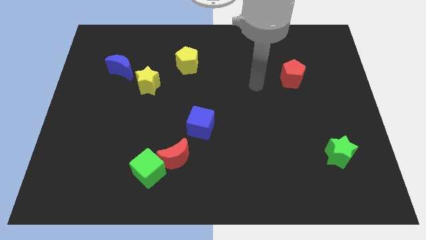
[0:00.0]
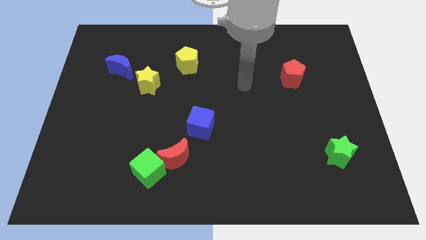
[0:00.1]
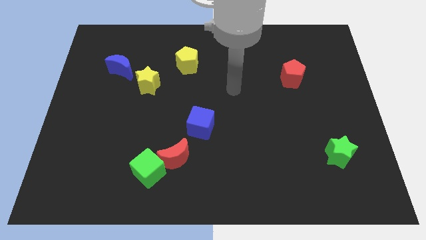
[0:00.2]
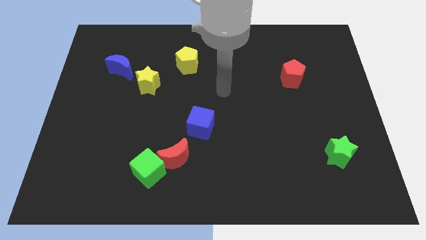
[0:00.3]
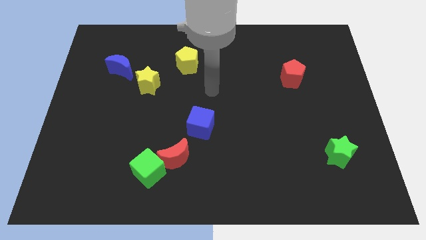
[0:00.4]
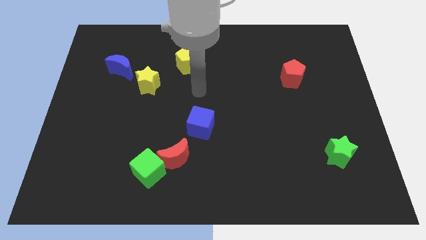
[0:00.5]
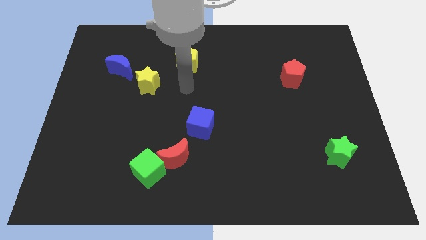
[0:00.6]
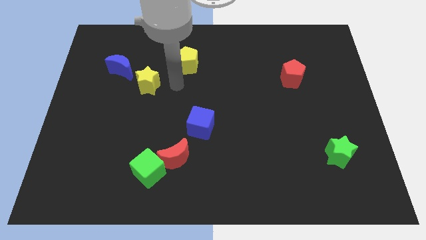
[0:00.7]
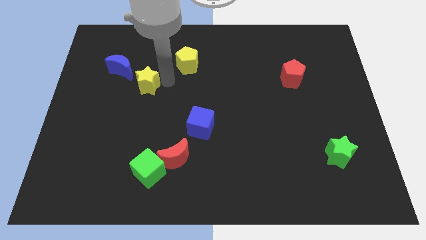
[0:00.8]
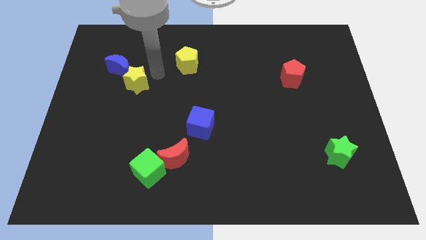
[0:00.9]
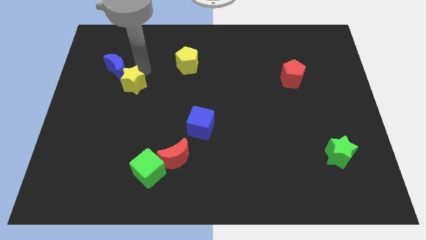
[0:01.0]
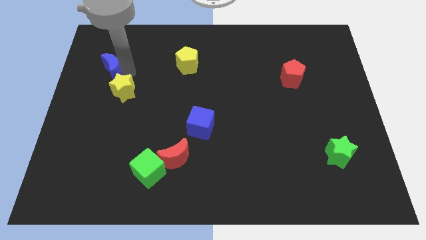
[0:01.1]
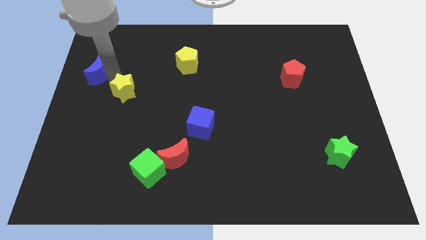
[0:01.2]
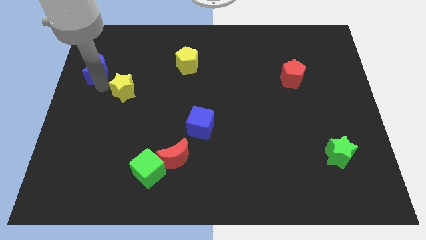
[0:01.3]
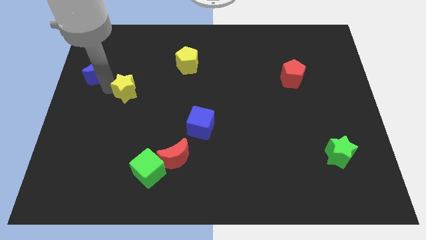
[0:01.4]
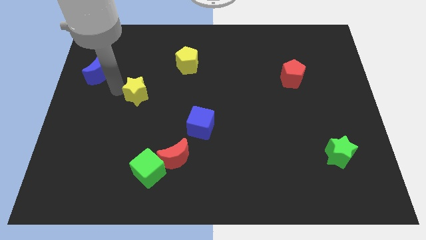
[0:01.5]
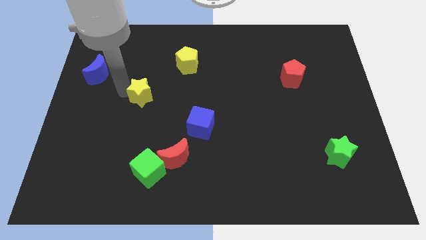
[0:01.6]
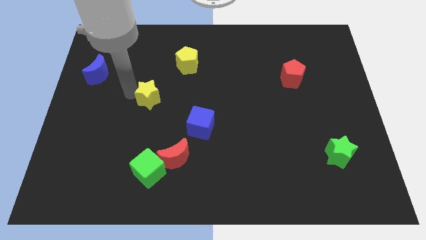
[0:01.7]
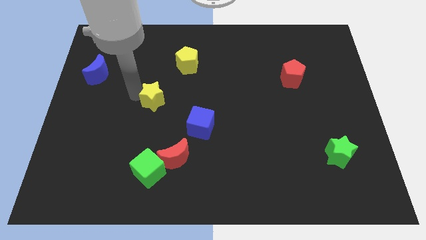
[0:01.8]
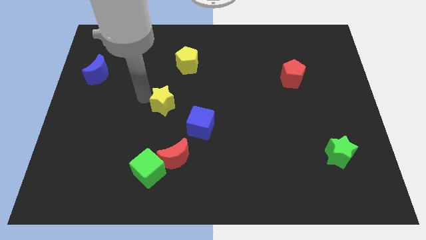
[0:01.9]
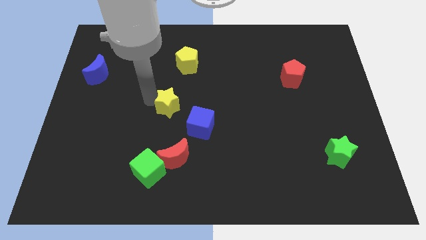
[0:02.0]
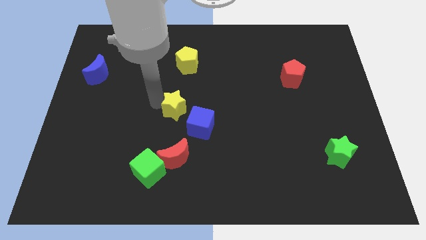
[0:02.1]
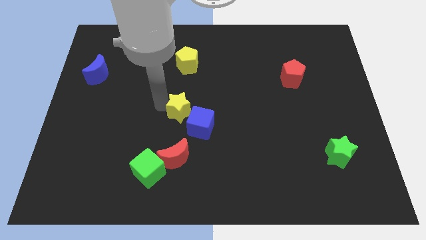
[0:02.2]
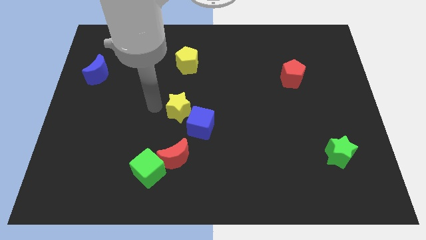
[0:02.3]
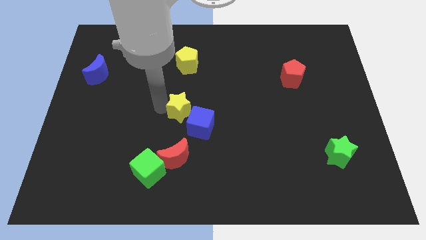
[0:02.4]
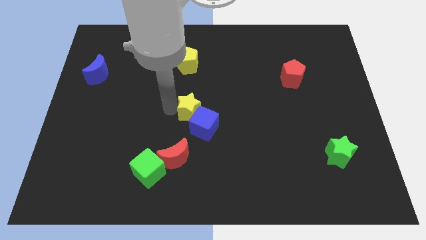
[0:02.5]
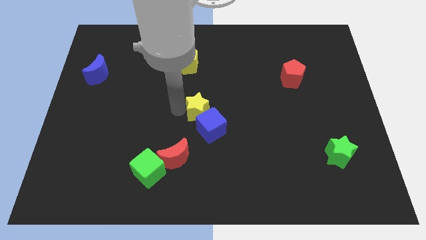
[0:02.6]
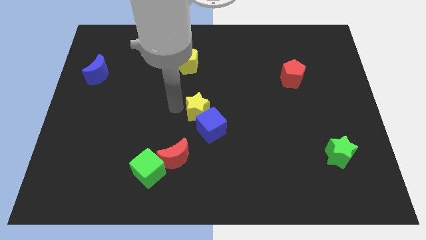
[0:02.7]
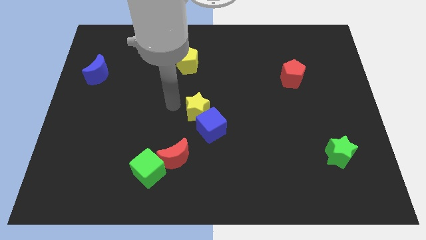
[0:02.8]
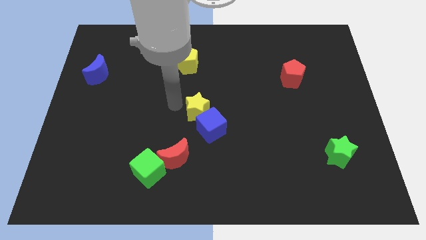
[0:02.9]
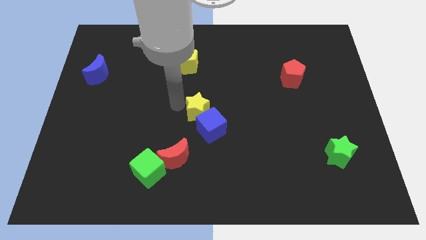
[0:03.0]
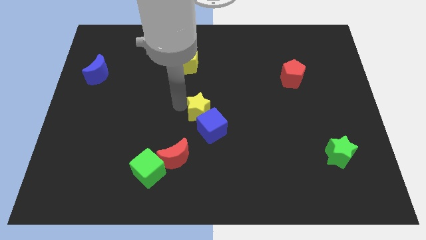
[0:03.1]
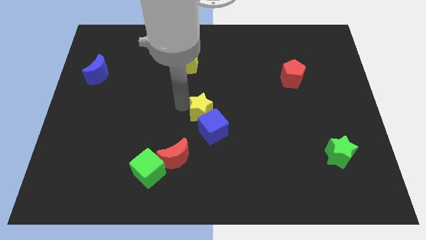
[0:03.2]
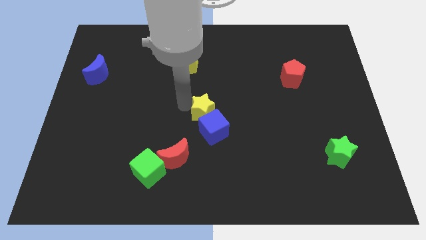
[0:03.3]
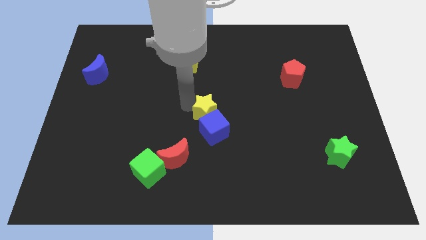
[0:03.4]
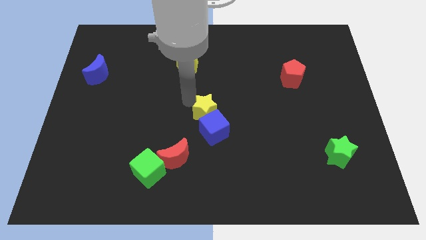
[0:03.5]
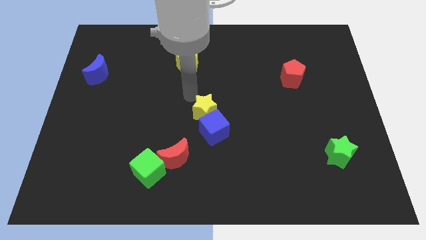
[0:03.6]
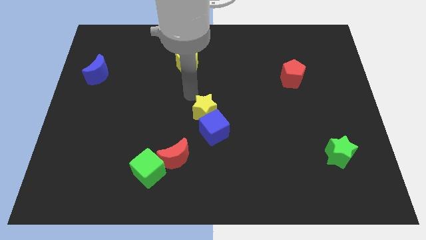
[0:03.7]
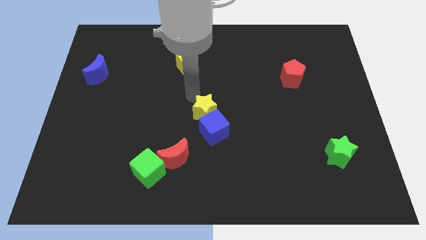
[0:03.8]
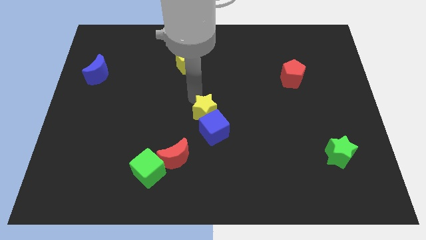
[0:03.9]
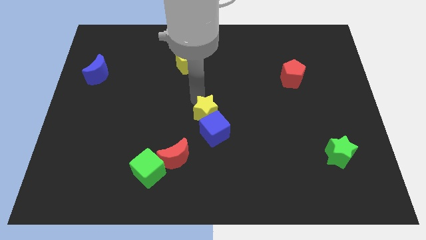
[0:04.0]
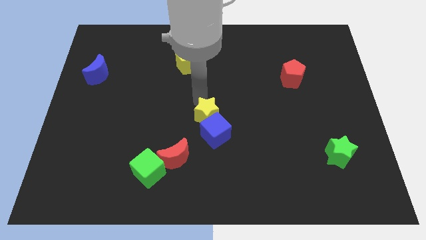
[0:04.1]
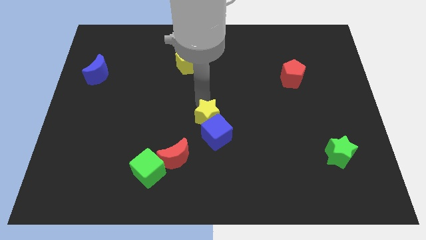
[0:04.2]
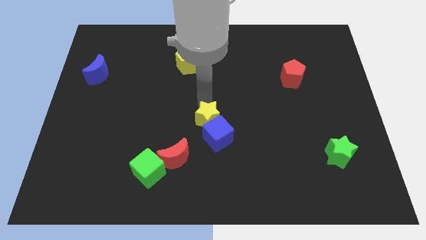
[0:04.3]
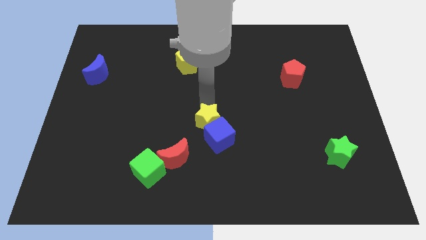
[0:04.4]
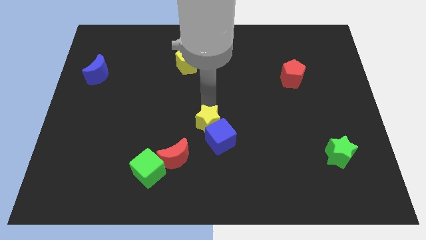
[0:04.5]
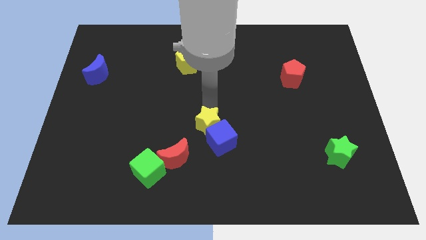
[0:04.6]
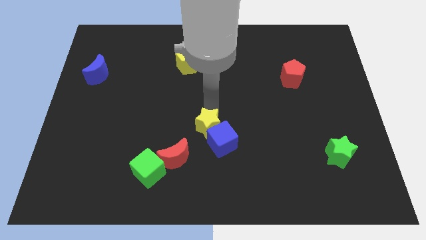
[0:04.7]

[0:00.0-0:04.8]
move the yellow star downwards and then to the right

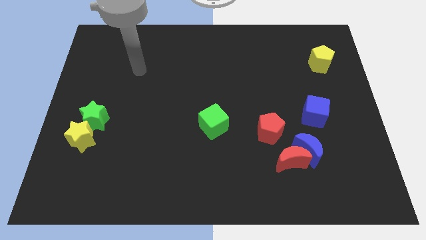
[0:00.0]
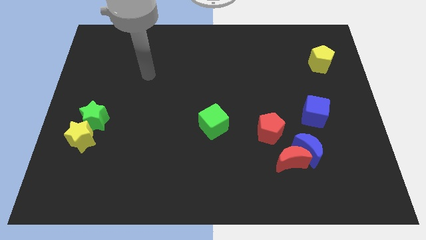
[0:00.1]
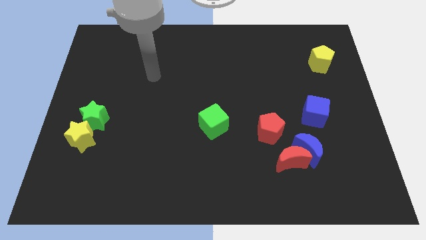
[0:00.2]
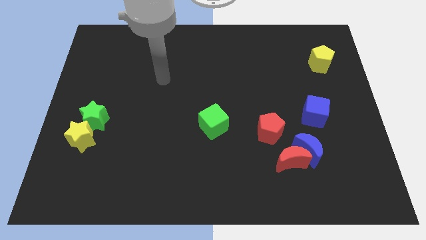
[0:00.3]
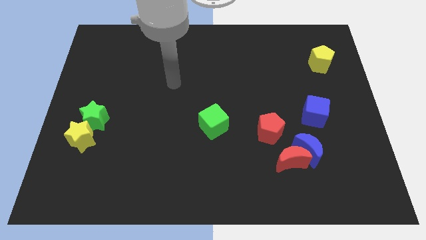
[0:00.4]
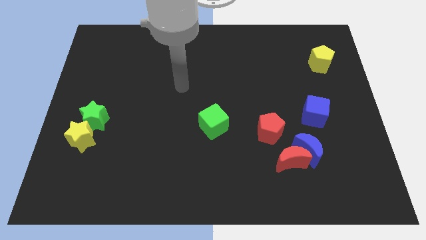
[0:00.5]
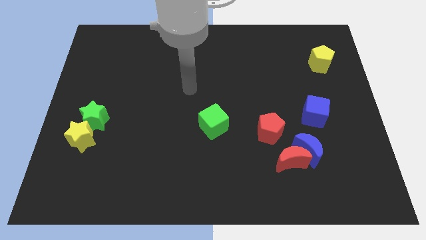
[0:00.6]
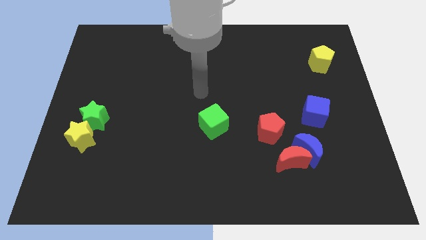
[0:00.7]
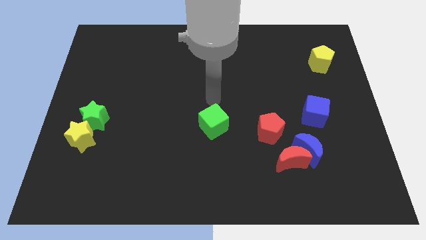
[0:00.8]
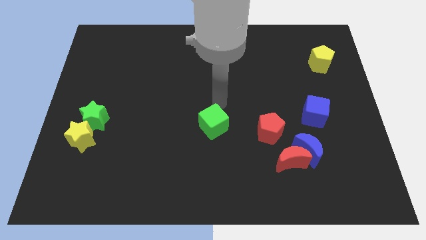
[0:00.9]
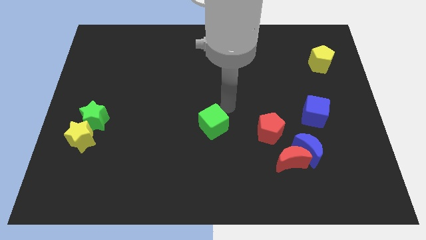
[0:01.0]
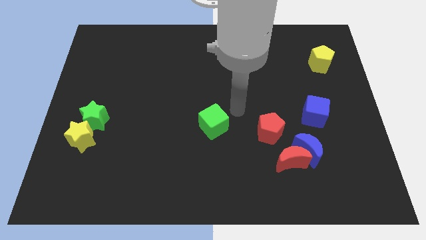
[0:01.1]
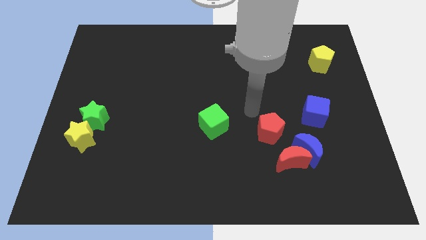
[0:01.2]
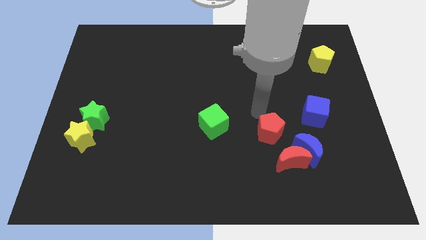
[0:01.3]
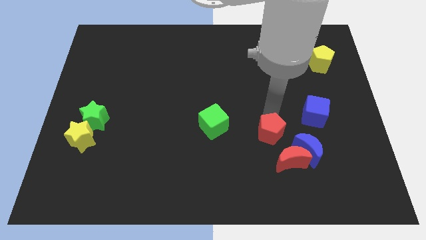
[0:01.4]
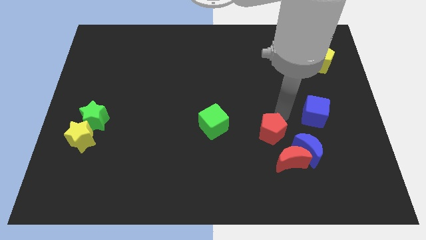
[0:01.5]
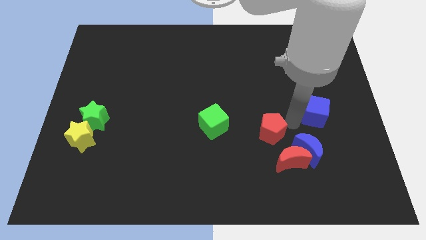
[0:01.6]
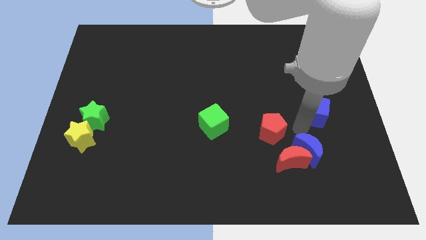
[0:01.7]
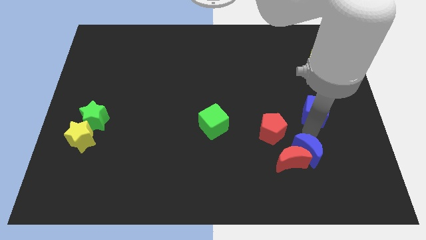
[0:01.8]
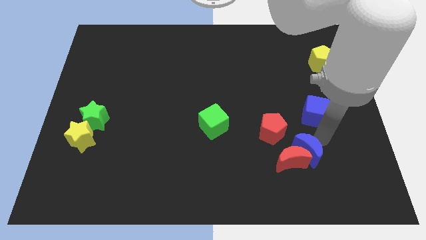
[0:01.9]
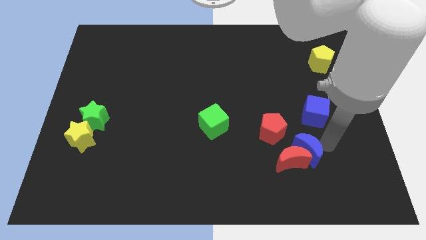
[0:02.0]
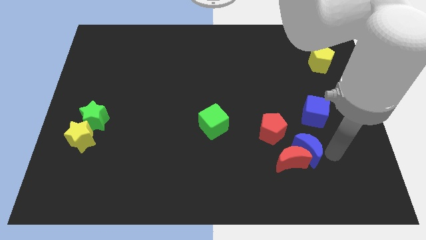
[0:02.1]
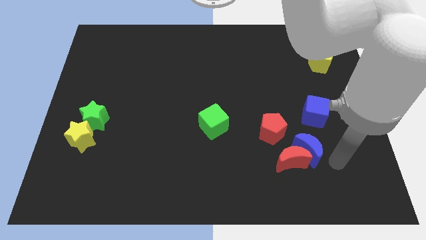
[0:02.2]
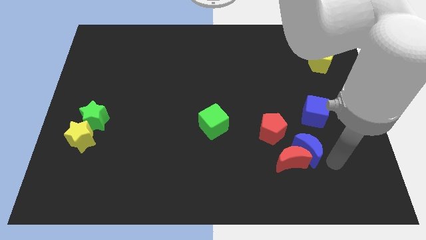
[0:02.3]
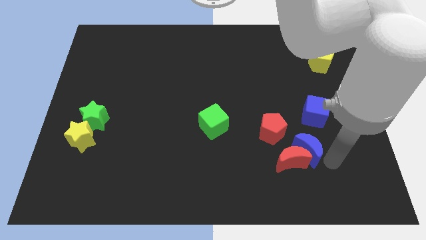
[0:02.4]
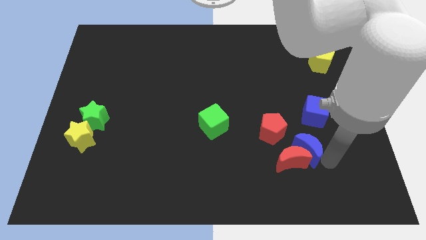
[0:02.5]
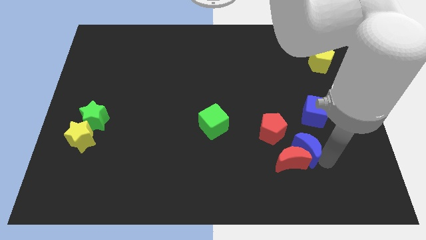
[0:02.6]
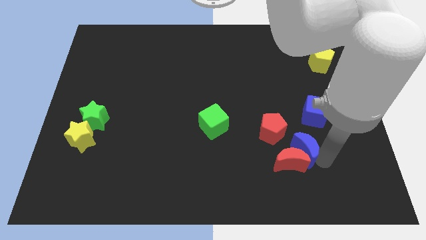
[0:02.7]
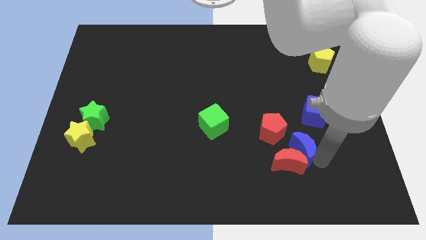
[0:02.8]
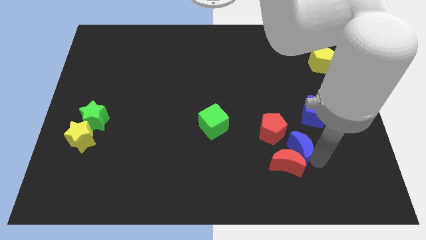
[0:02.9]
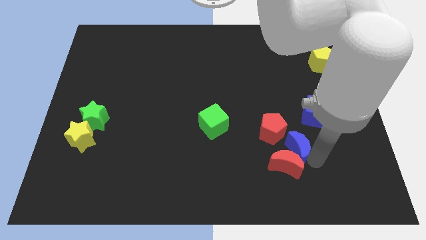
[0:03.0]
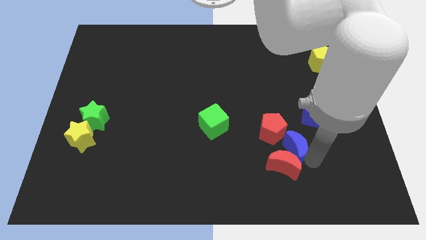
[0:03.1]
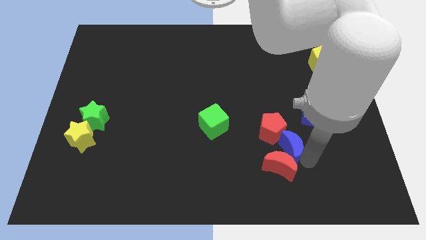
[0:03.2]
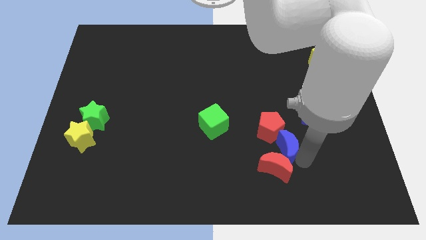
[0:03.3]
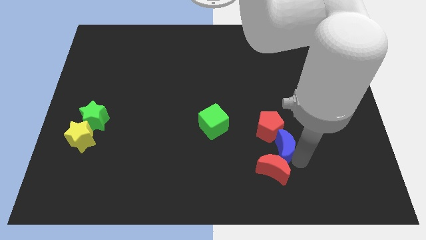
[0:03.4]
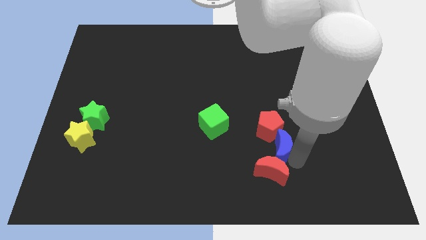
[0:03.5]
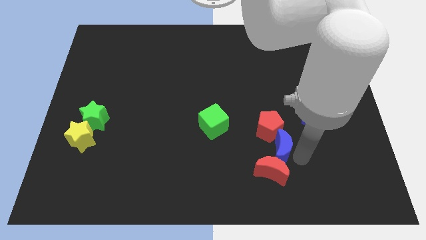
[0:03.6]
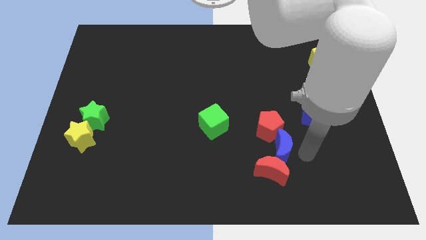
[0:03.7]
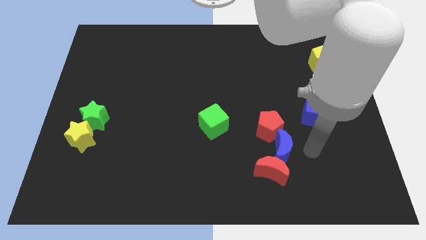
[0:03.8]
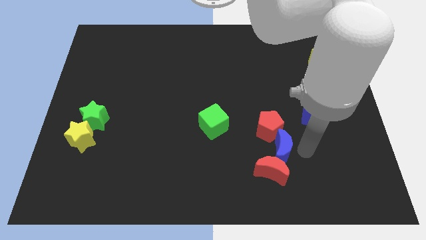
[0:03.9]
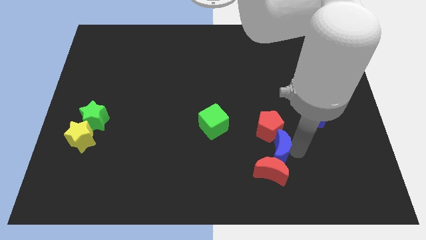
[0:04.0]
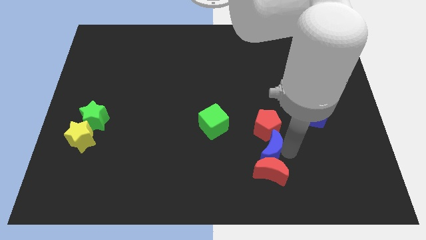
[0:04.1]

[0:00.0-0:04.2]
slide the blue moon a little bit left
